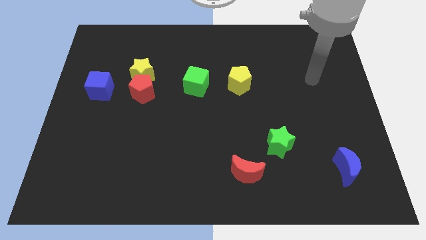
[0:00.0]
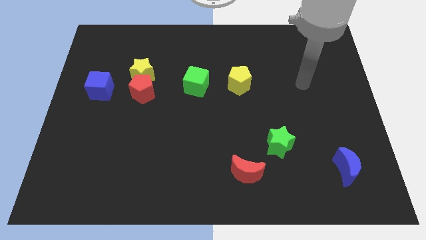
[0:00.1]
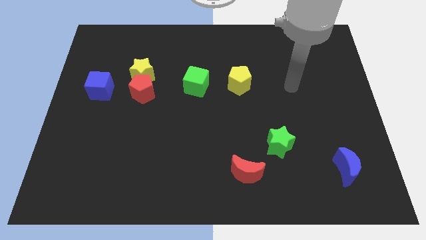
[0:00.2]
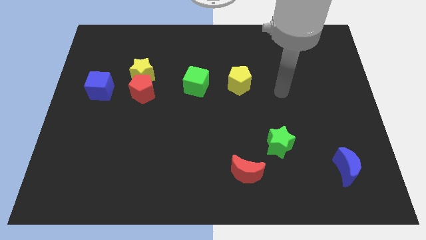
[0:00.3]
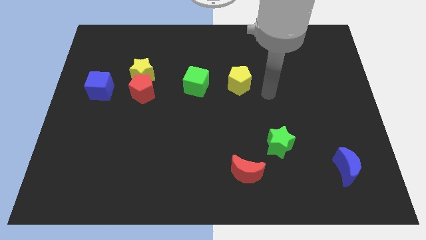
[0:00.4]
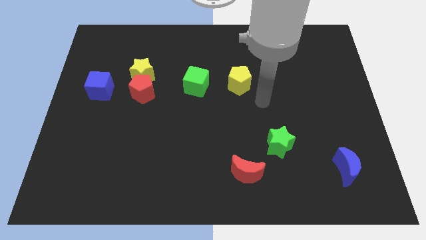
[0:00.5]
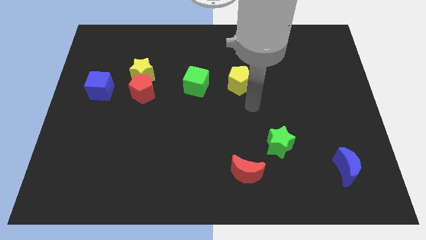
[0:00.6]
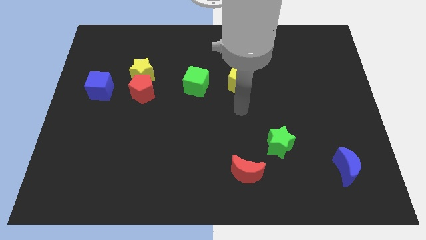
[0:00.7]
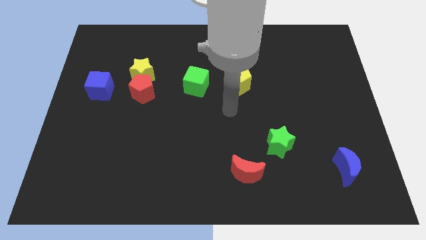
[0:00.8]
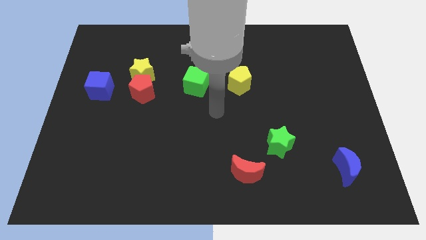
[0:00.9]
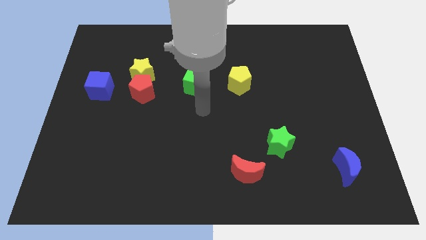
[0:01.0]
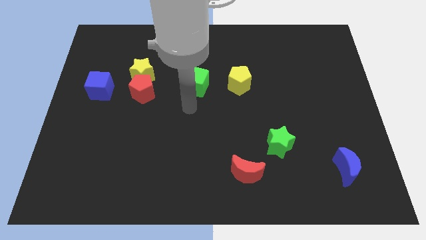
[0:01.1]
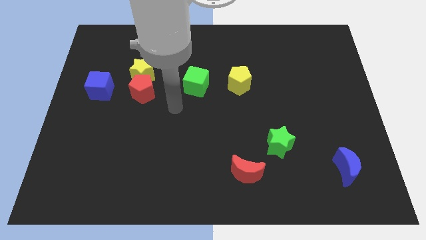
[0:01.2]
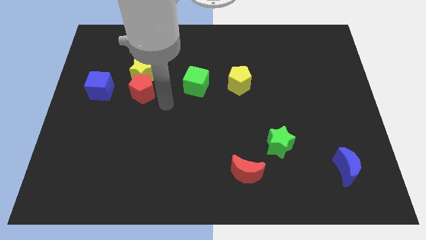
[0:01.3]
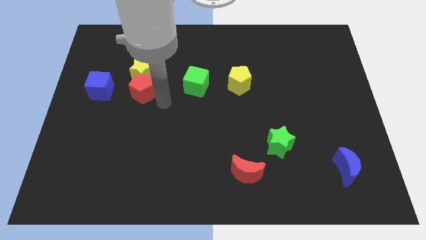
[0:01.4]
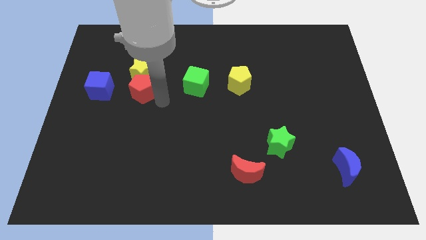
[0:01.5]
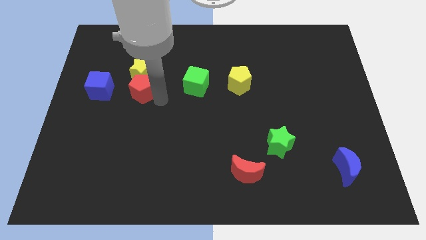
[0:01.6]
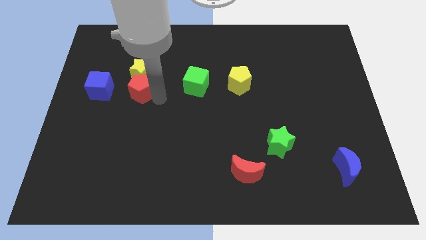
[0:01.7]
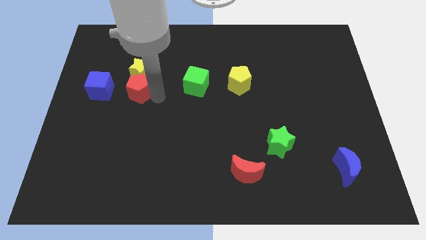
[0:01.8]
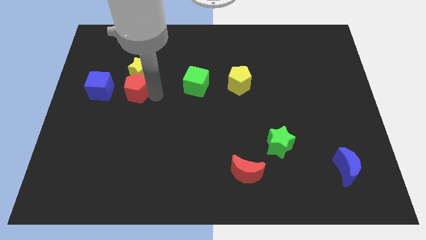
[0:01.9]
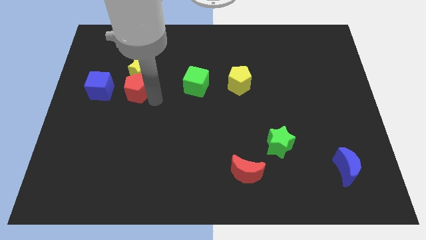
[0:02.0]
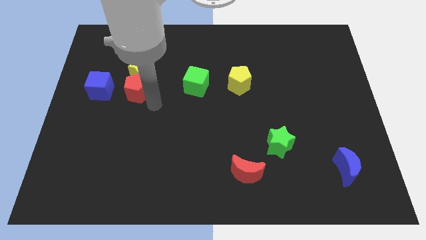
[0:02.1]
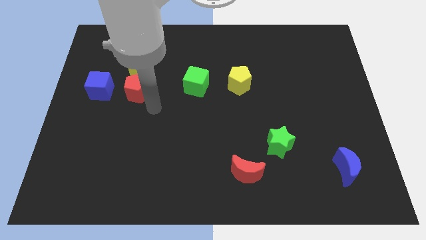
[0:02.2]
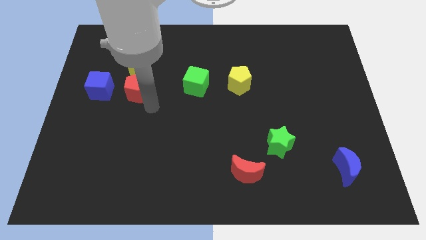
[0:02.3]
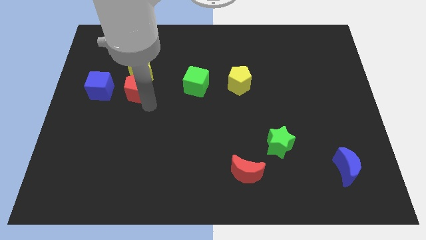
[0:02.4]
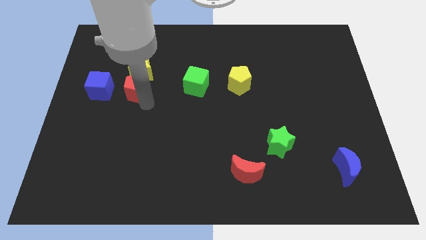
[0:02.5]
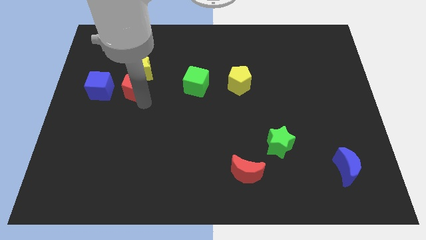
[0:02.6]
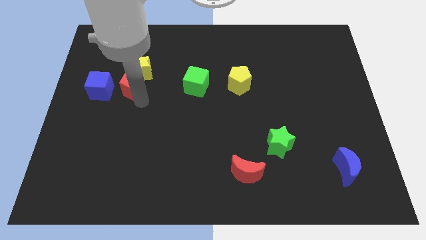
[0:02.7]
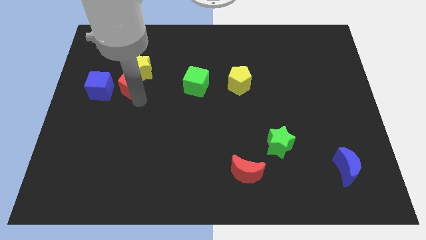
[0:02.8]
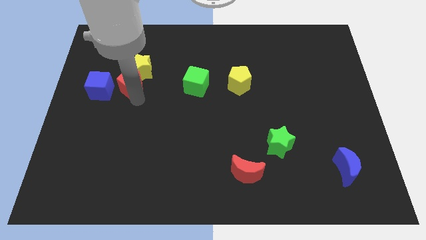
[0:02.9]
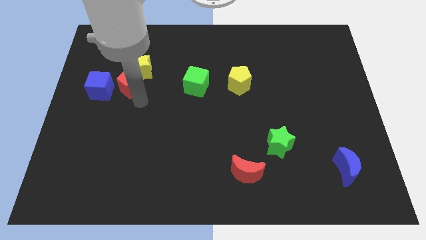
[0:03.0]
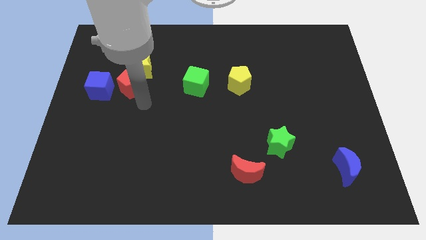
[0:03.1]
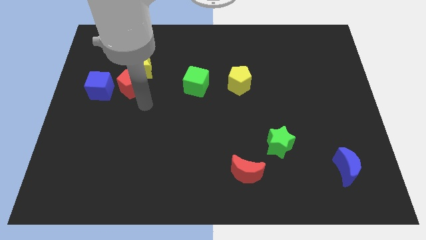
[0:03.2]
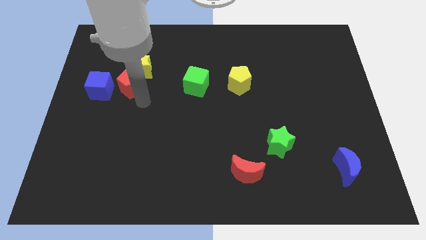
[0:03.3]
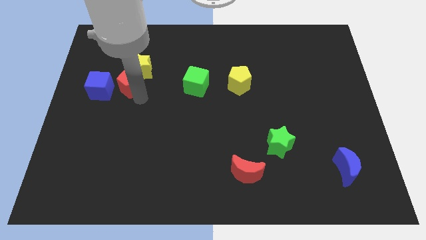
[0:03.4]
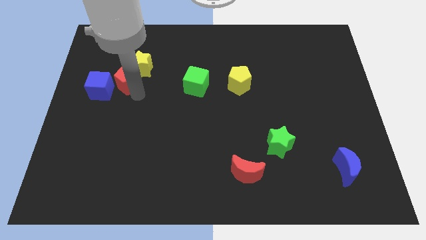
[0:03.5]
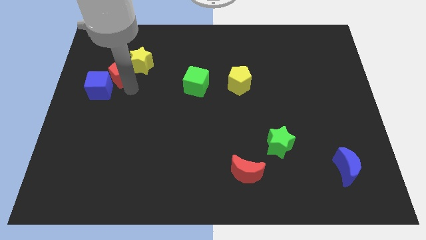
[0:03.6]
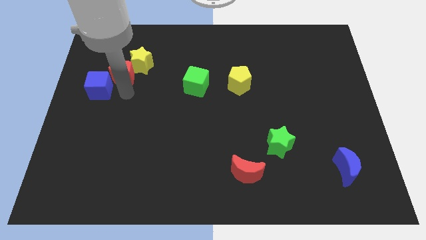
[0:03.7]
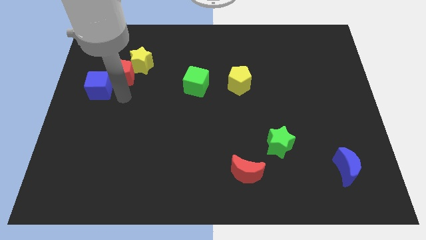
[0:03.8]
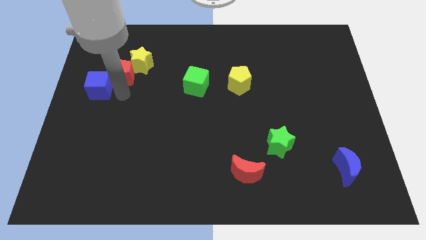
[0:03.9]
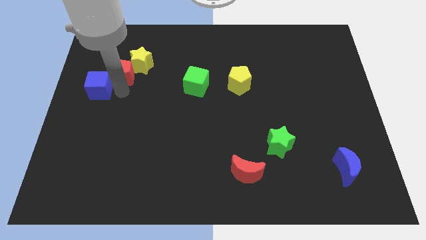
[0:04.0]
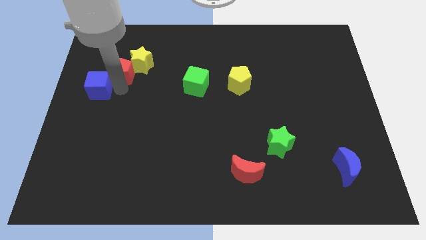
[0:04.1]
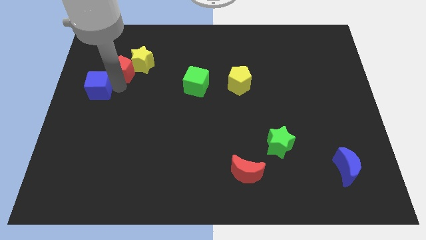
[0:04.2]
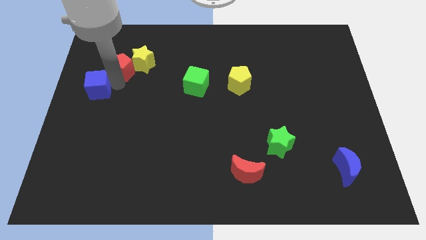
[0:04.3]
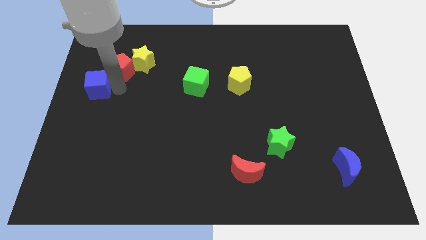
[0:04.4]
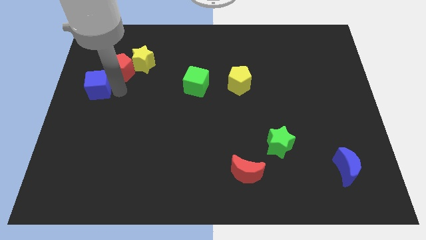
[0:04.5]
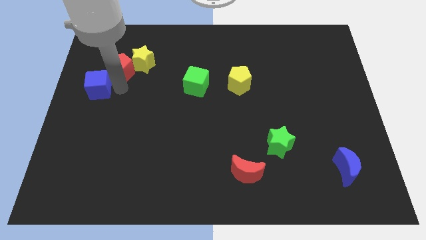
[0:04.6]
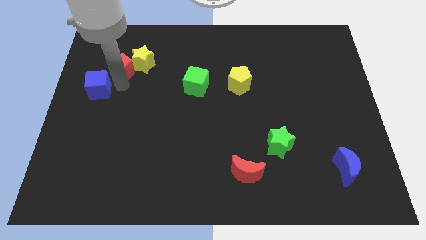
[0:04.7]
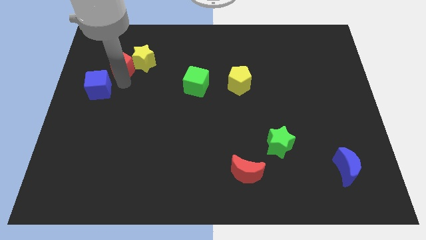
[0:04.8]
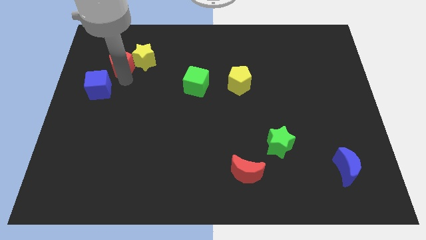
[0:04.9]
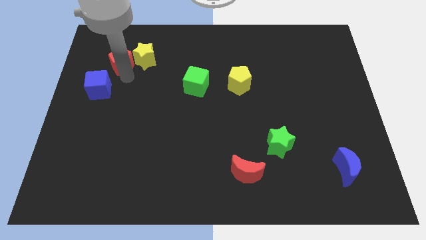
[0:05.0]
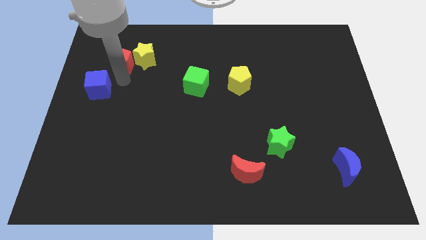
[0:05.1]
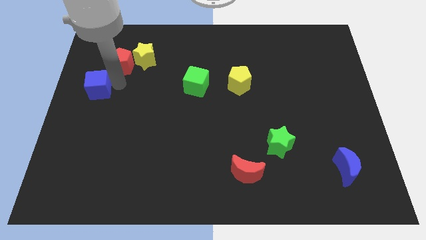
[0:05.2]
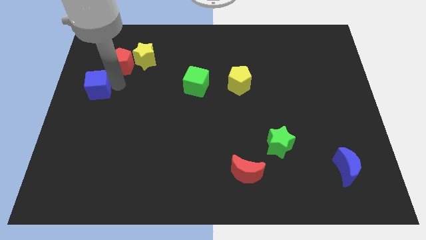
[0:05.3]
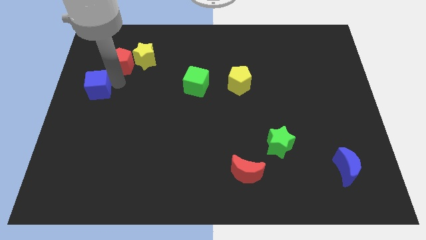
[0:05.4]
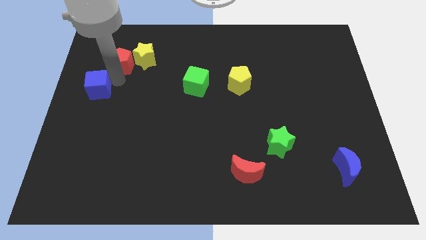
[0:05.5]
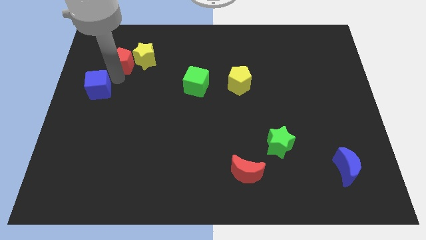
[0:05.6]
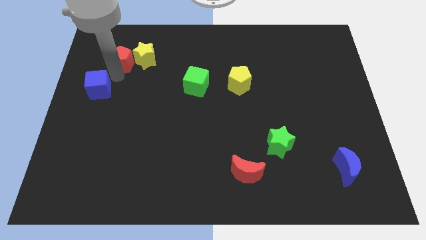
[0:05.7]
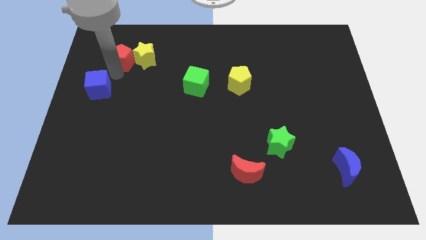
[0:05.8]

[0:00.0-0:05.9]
slide the red pentagon to the top left of the yellow star

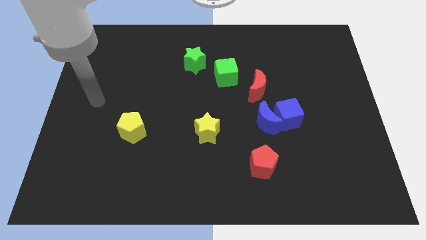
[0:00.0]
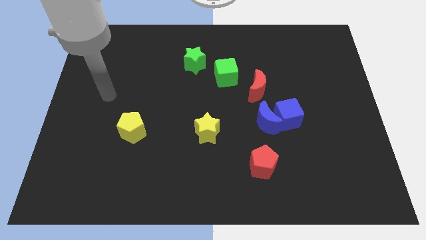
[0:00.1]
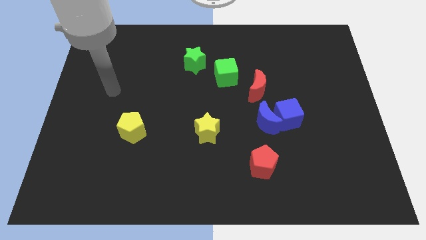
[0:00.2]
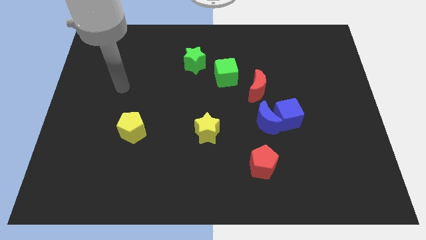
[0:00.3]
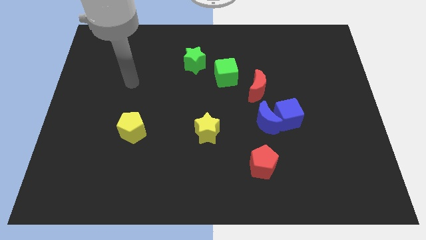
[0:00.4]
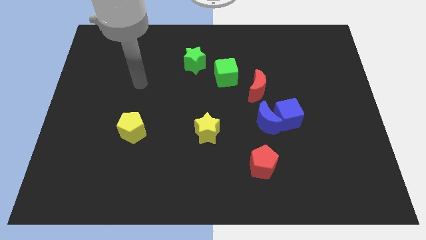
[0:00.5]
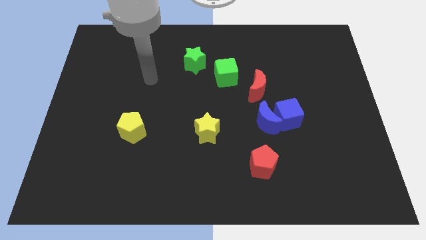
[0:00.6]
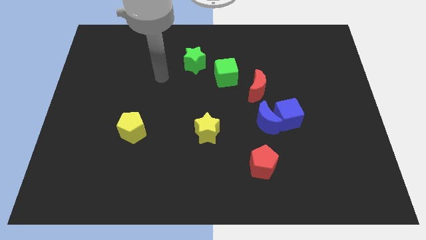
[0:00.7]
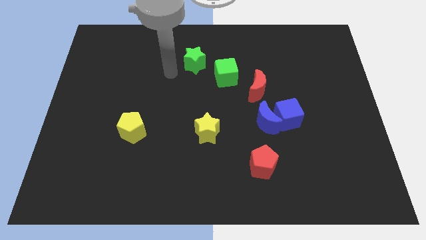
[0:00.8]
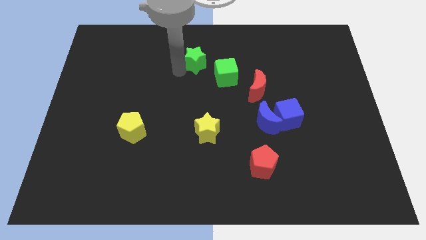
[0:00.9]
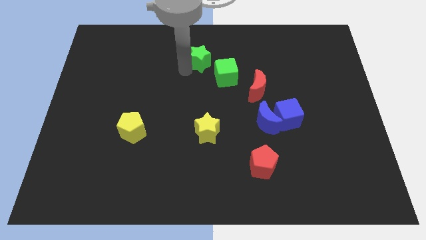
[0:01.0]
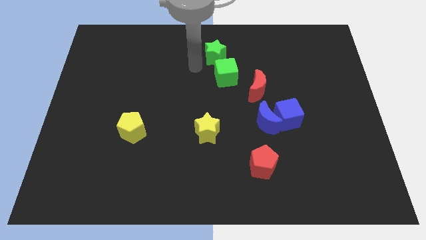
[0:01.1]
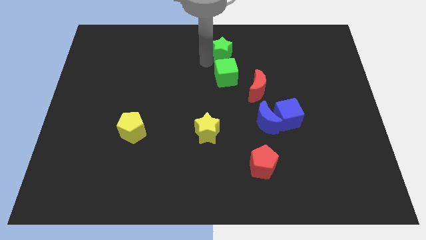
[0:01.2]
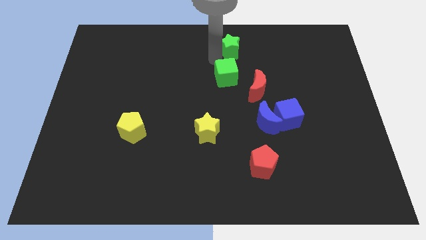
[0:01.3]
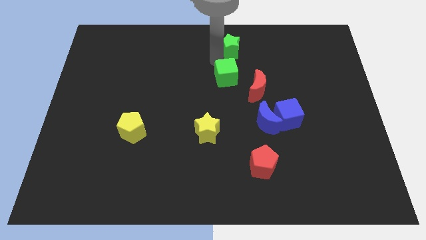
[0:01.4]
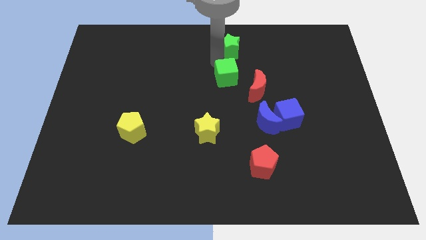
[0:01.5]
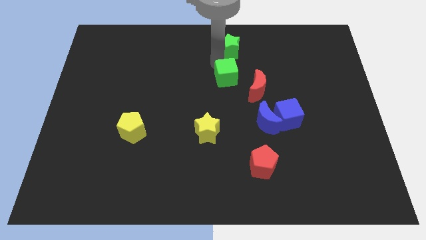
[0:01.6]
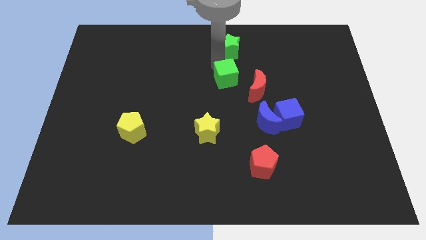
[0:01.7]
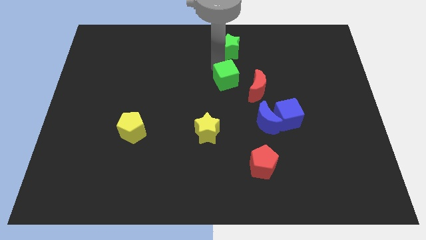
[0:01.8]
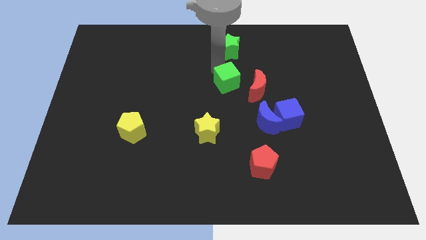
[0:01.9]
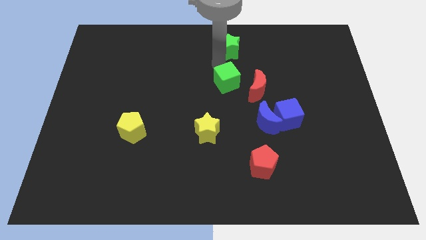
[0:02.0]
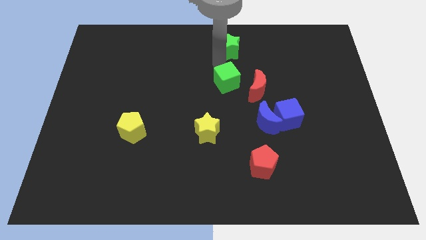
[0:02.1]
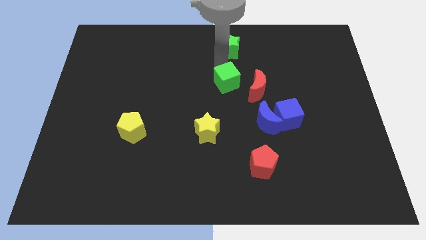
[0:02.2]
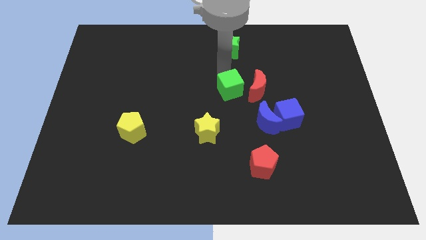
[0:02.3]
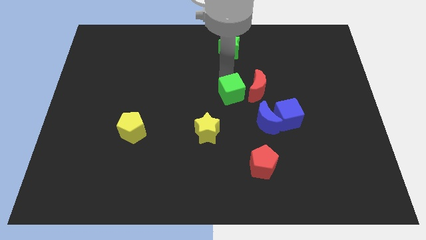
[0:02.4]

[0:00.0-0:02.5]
push the green cube to the bottom left of the red moon
